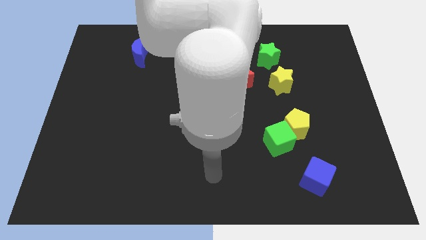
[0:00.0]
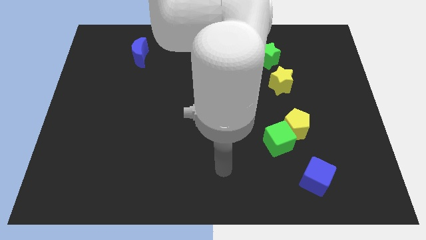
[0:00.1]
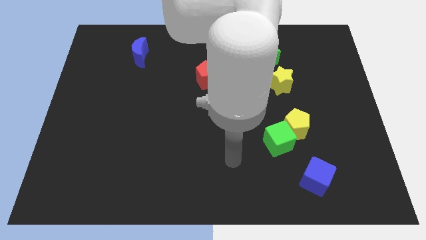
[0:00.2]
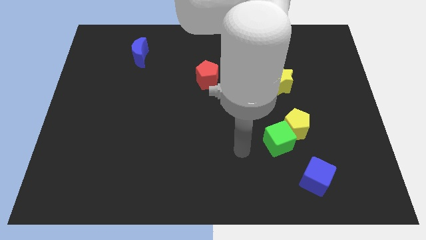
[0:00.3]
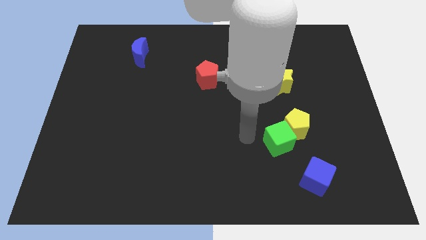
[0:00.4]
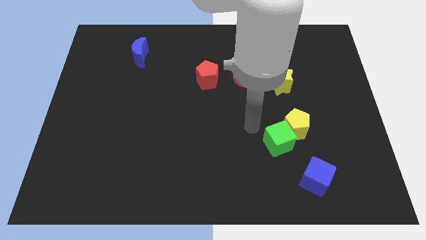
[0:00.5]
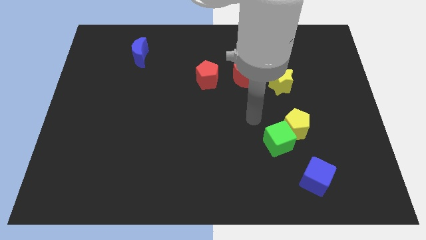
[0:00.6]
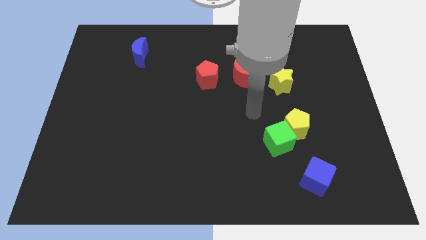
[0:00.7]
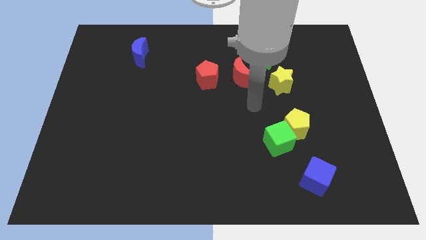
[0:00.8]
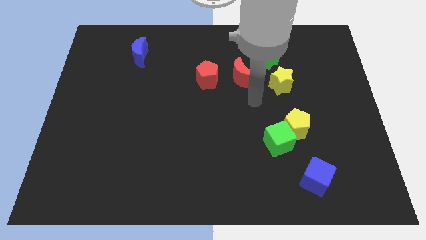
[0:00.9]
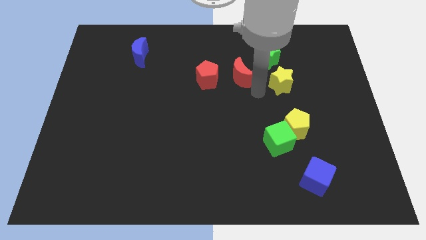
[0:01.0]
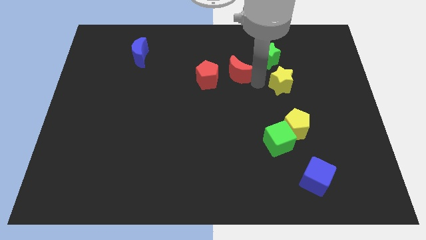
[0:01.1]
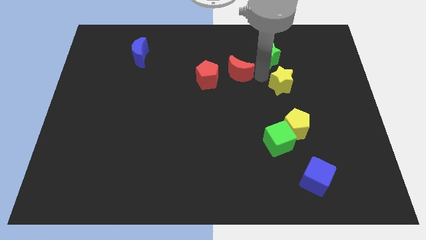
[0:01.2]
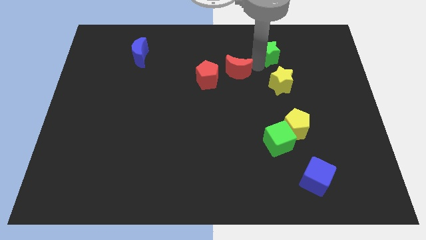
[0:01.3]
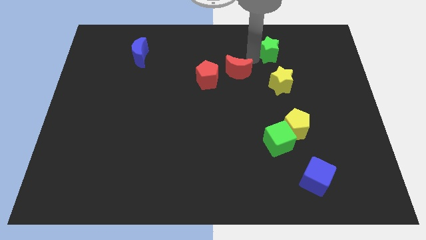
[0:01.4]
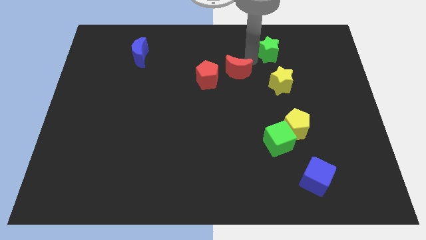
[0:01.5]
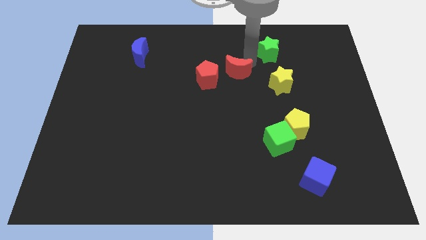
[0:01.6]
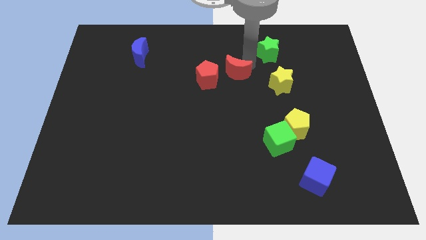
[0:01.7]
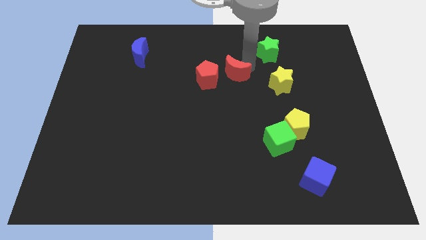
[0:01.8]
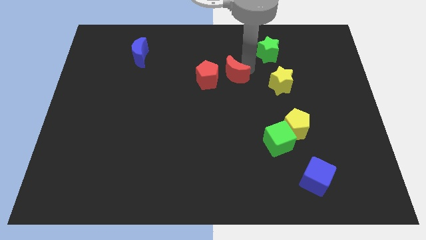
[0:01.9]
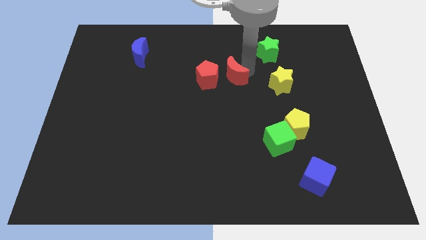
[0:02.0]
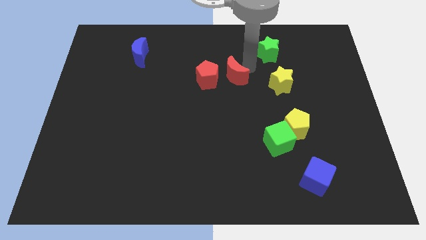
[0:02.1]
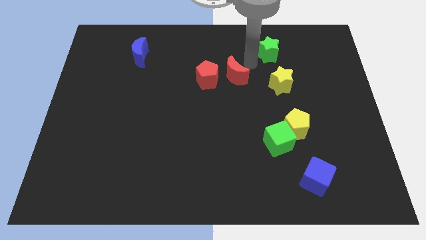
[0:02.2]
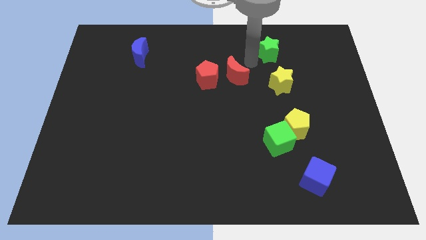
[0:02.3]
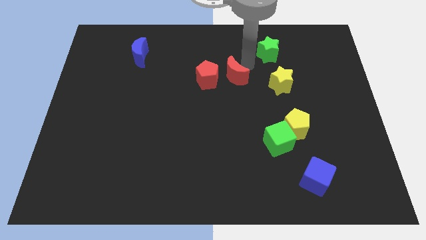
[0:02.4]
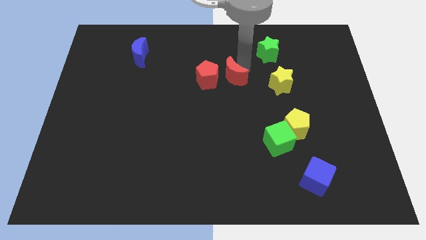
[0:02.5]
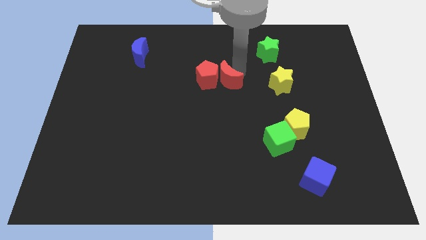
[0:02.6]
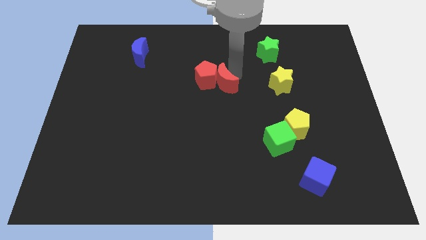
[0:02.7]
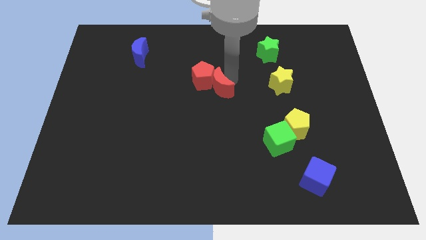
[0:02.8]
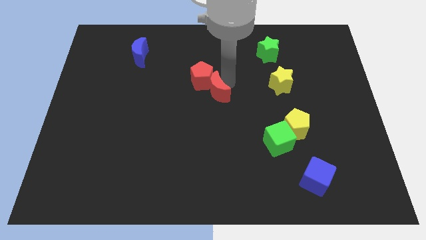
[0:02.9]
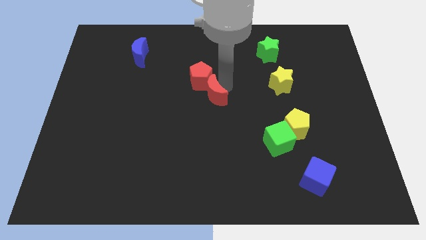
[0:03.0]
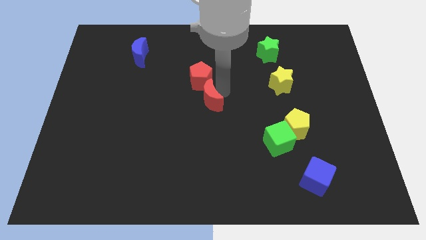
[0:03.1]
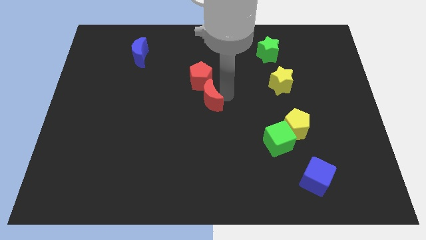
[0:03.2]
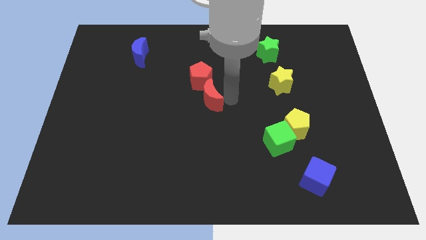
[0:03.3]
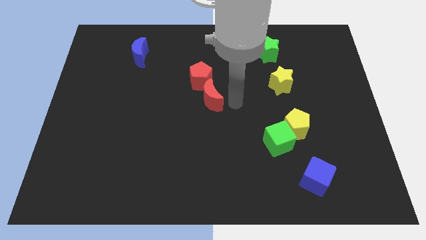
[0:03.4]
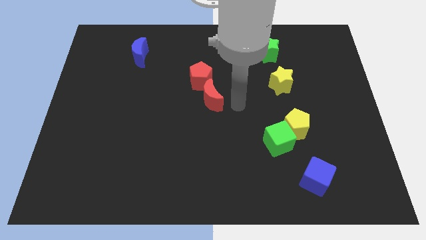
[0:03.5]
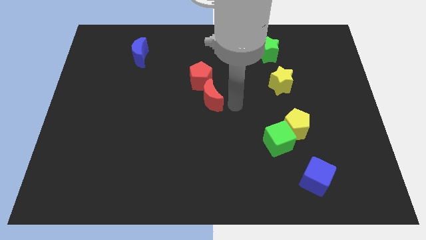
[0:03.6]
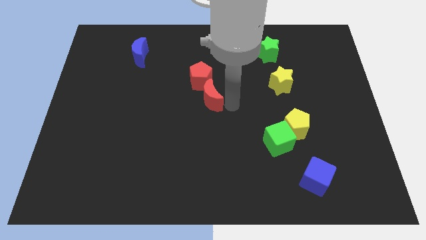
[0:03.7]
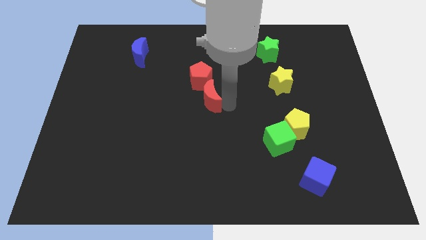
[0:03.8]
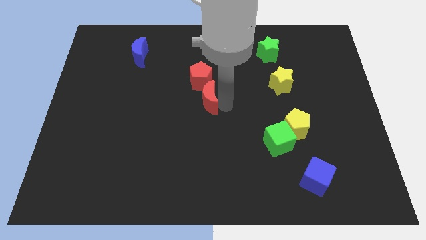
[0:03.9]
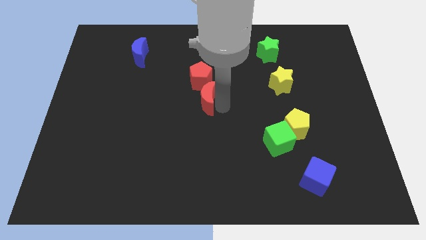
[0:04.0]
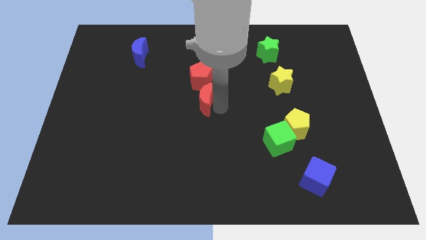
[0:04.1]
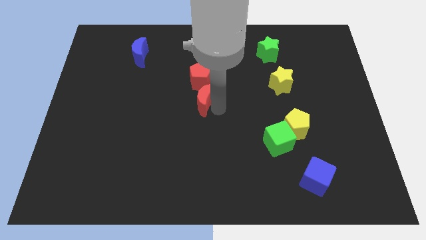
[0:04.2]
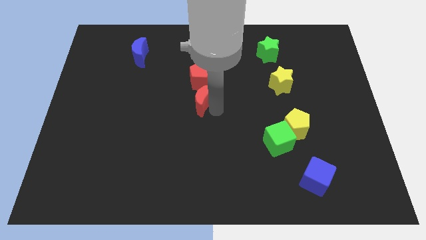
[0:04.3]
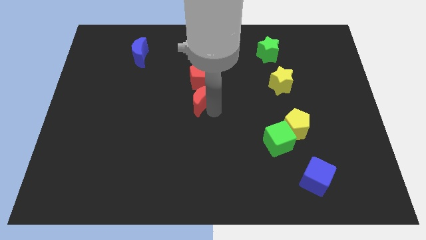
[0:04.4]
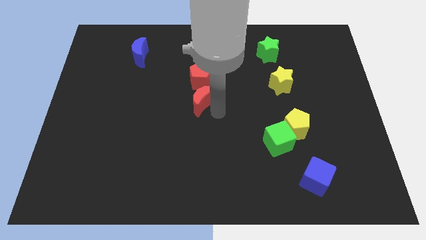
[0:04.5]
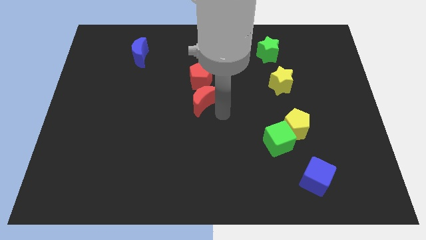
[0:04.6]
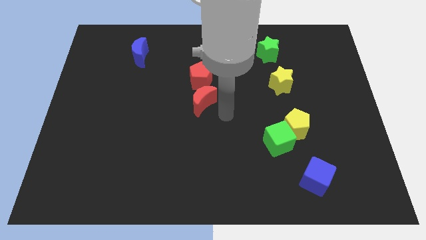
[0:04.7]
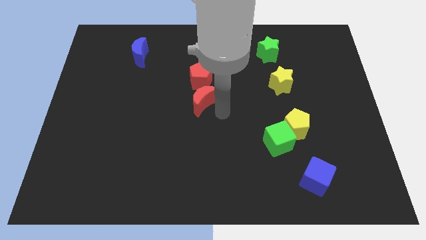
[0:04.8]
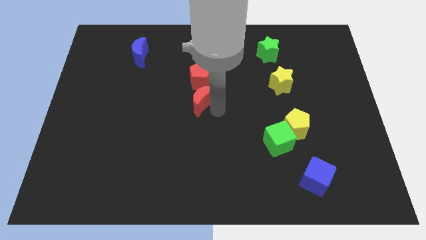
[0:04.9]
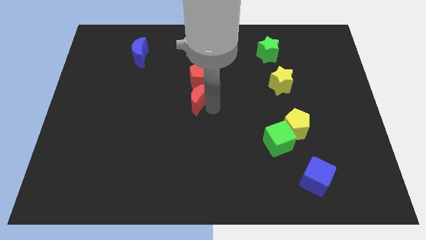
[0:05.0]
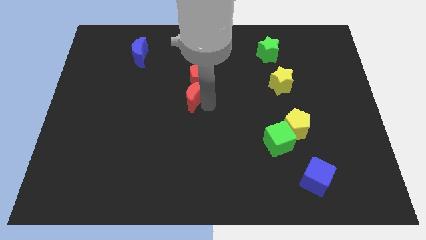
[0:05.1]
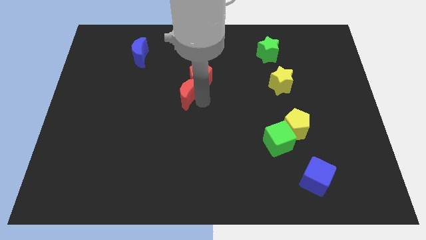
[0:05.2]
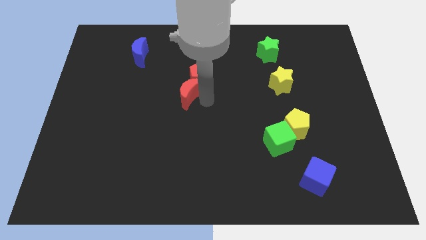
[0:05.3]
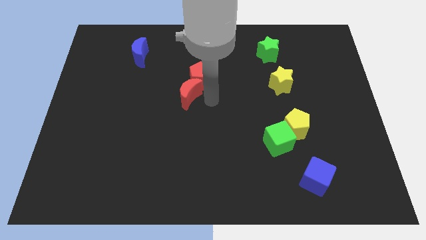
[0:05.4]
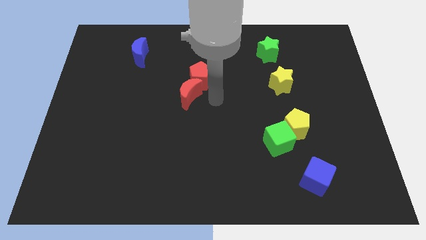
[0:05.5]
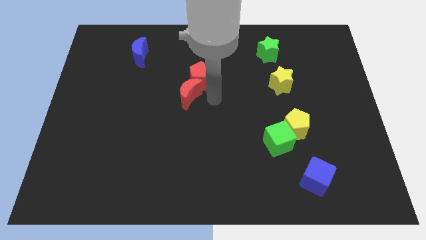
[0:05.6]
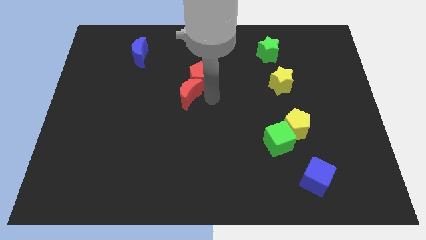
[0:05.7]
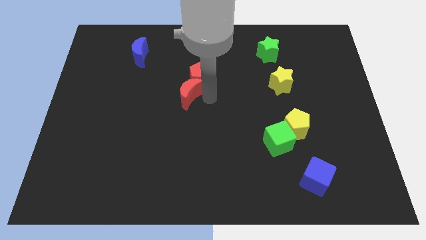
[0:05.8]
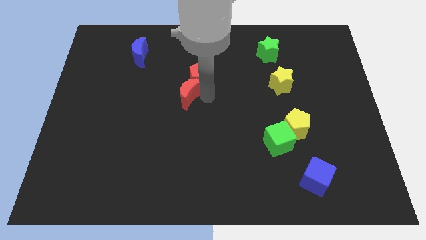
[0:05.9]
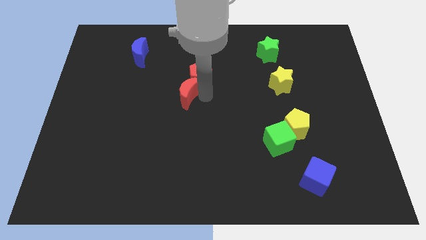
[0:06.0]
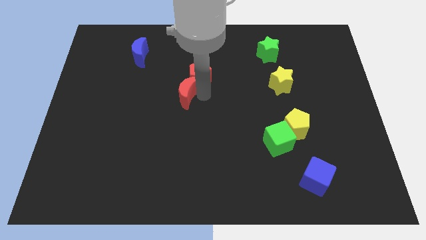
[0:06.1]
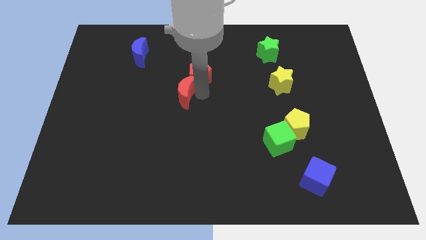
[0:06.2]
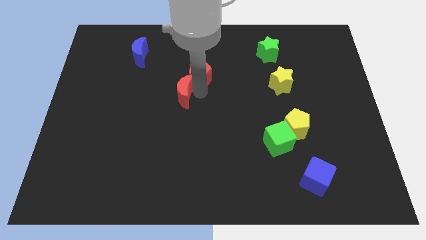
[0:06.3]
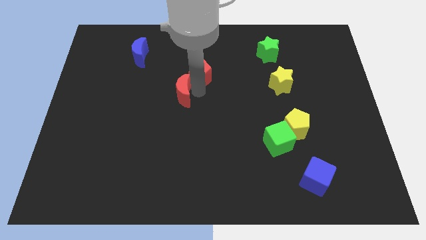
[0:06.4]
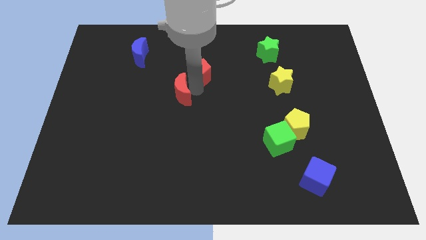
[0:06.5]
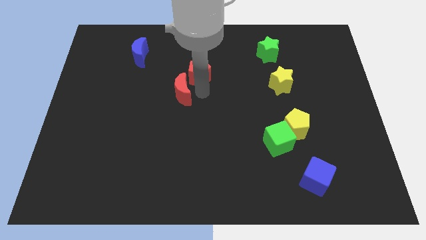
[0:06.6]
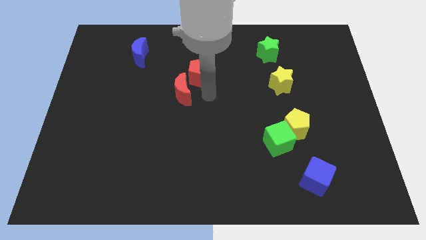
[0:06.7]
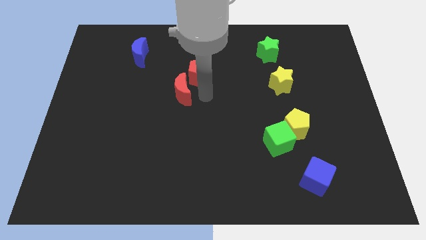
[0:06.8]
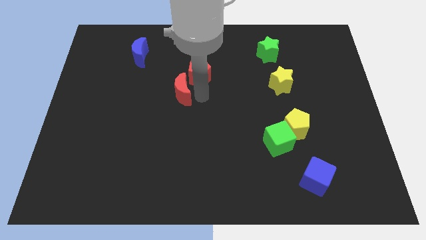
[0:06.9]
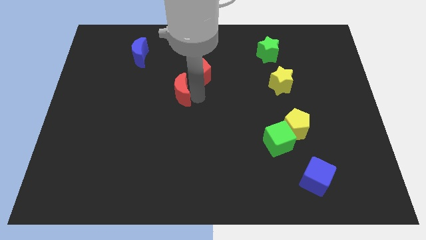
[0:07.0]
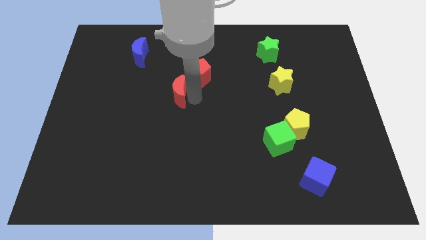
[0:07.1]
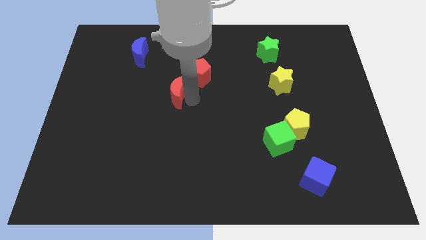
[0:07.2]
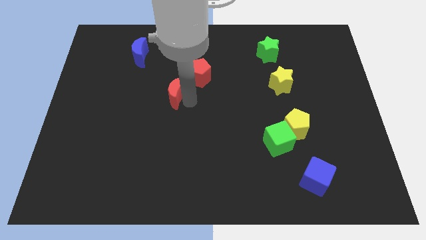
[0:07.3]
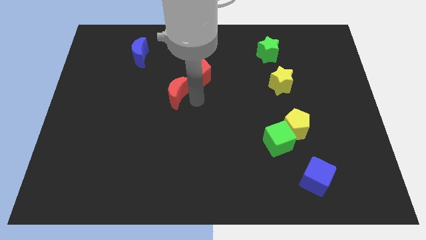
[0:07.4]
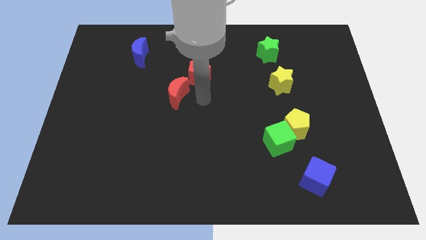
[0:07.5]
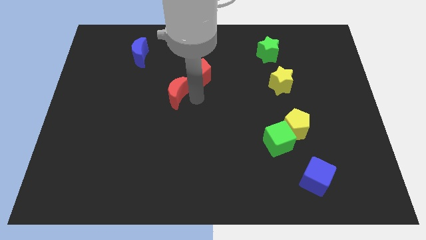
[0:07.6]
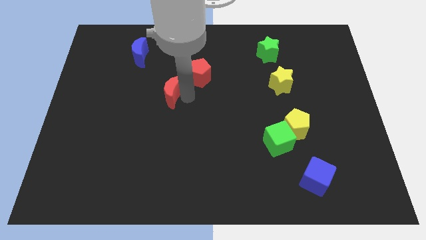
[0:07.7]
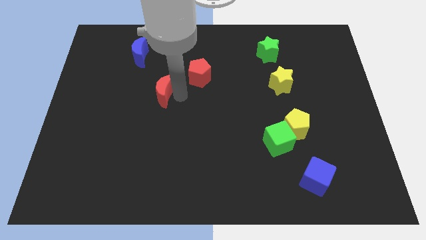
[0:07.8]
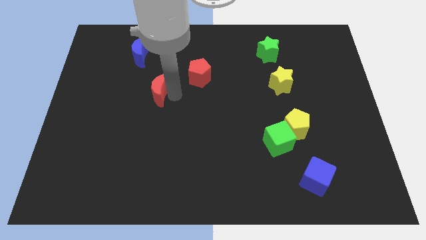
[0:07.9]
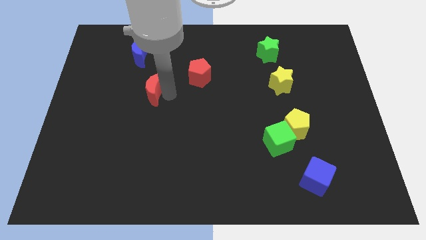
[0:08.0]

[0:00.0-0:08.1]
slide the red moon to the left

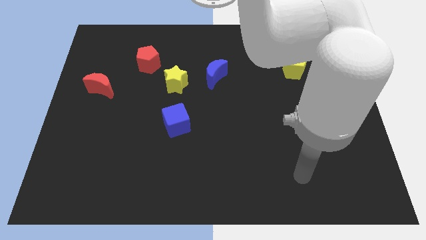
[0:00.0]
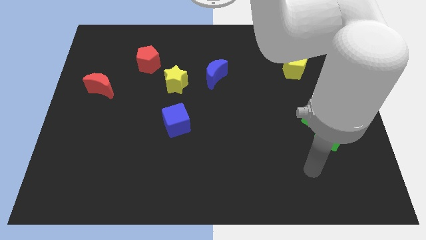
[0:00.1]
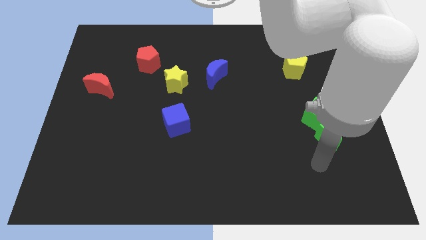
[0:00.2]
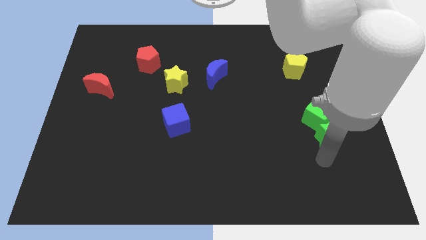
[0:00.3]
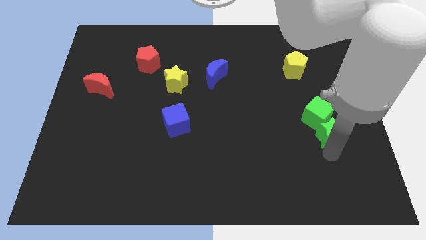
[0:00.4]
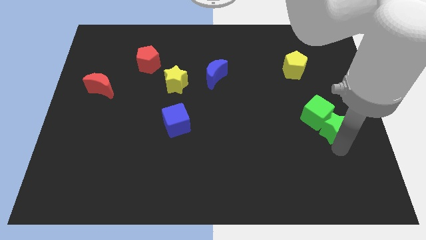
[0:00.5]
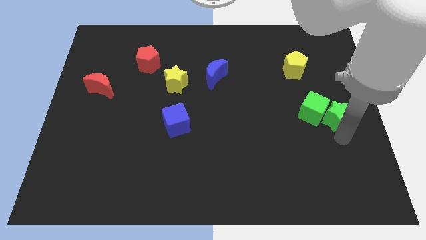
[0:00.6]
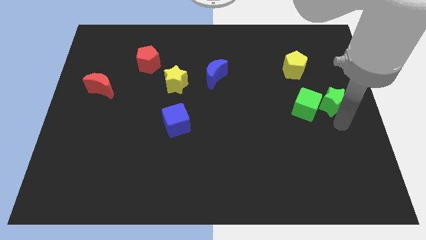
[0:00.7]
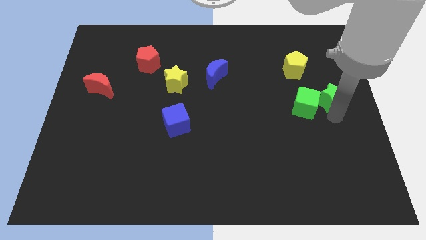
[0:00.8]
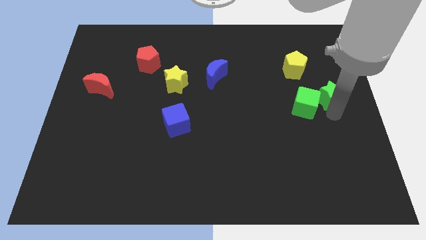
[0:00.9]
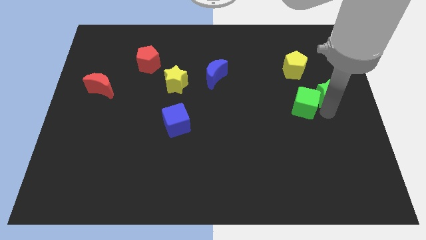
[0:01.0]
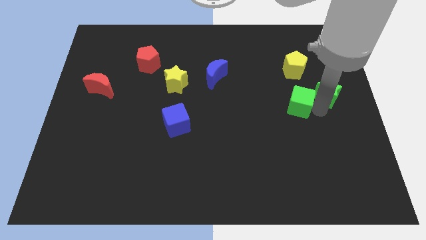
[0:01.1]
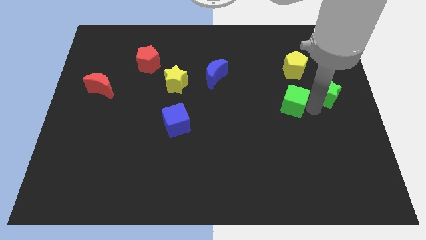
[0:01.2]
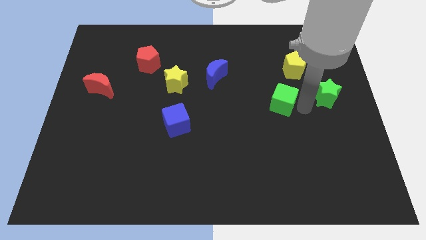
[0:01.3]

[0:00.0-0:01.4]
push the green cube up and then left a little bit
